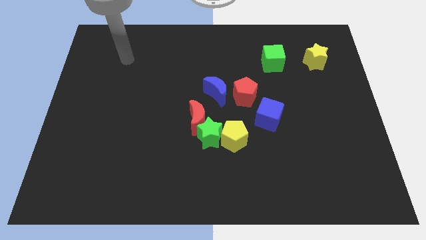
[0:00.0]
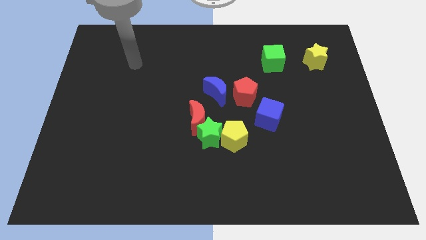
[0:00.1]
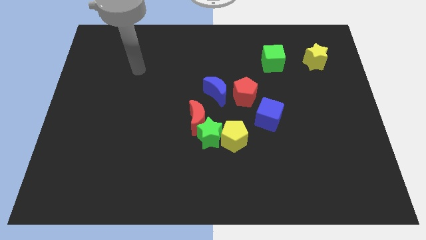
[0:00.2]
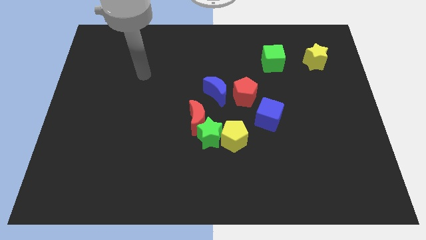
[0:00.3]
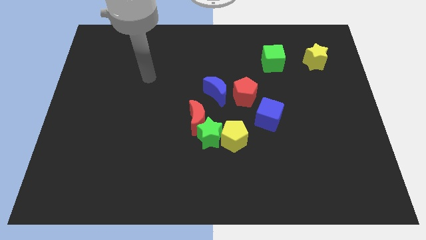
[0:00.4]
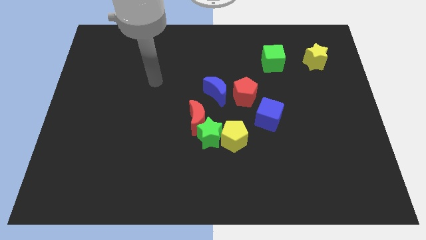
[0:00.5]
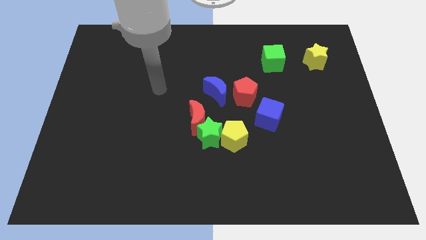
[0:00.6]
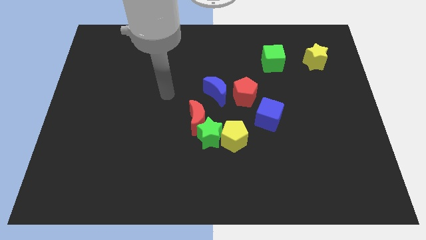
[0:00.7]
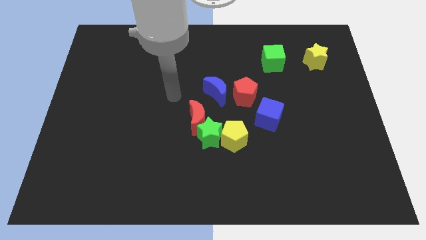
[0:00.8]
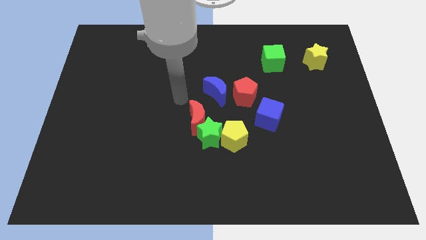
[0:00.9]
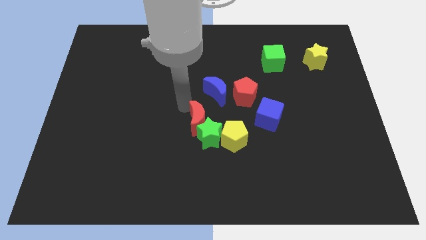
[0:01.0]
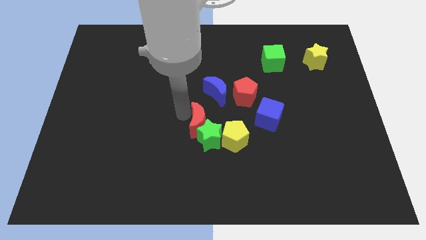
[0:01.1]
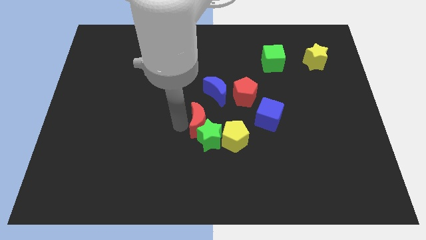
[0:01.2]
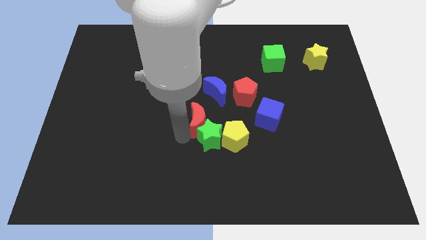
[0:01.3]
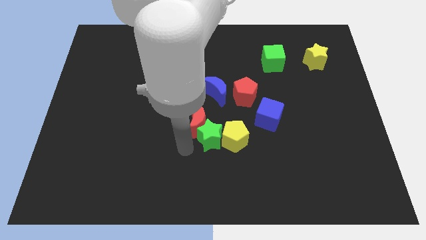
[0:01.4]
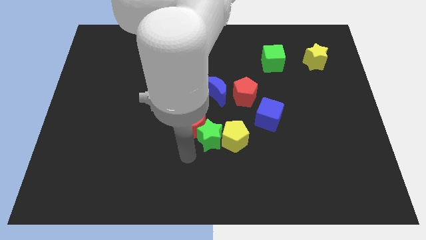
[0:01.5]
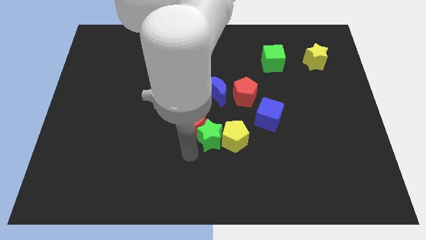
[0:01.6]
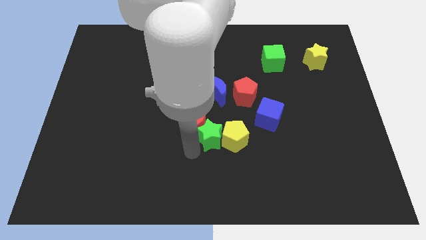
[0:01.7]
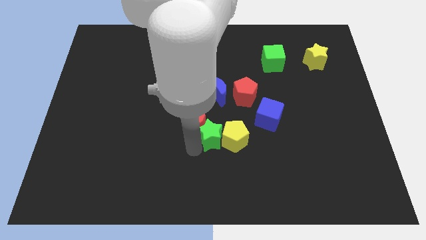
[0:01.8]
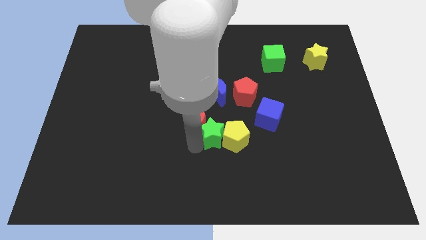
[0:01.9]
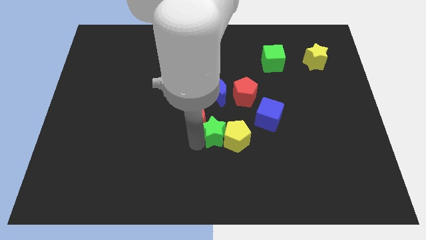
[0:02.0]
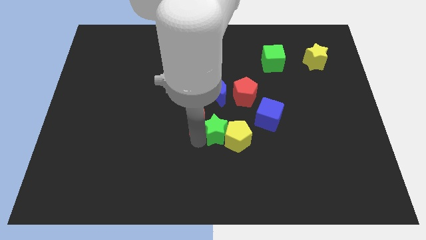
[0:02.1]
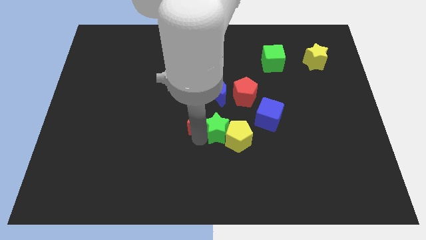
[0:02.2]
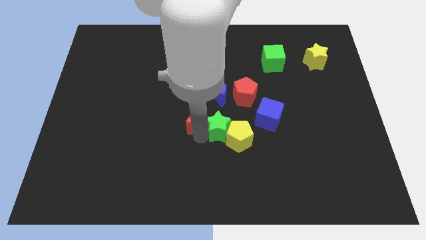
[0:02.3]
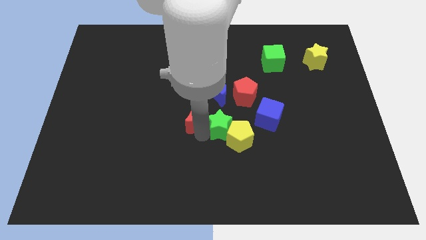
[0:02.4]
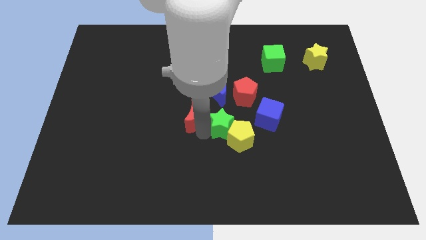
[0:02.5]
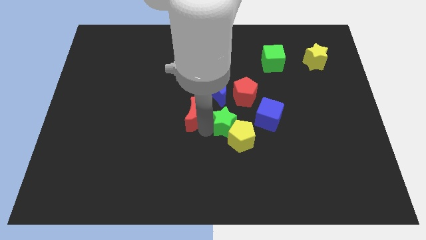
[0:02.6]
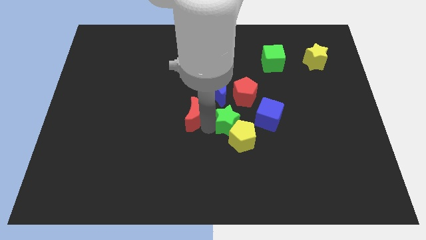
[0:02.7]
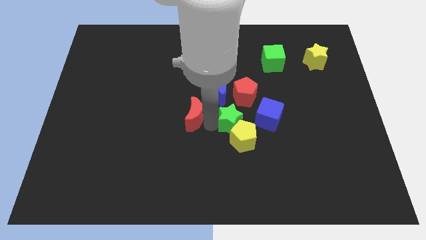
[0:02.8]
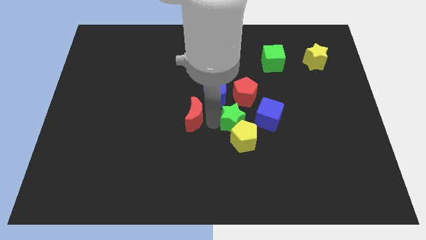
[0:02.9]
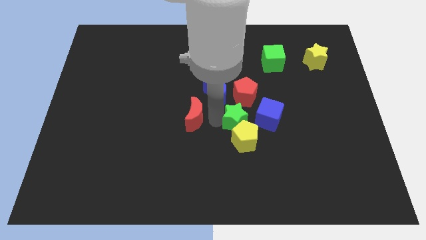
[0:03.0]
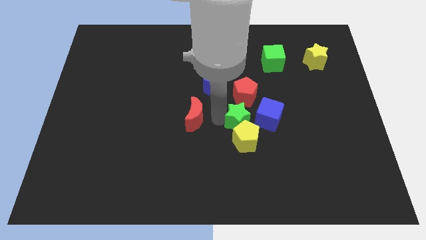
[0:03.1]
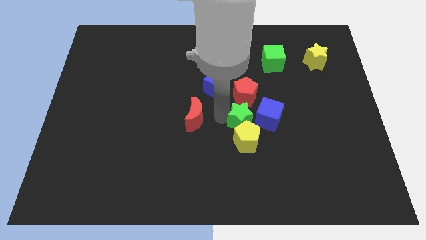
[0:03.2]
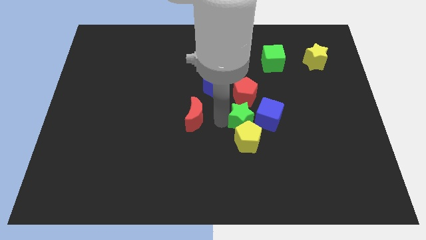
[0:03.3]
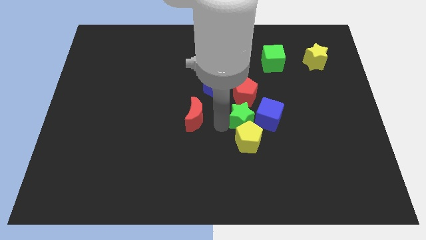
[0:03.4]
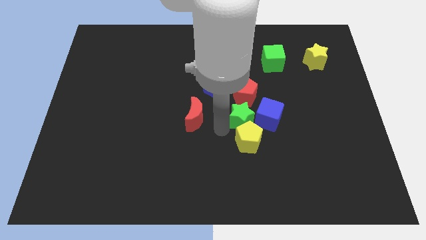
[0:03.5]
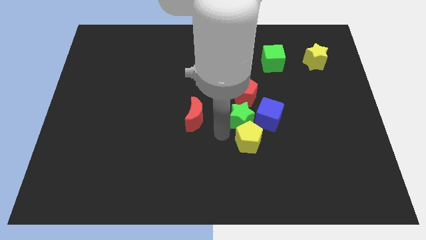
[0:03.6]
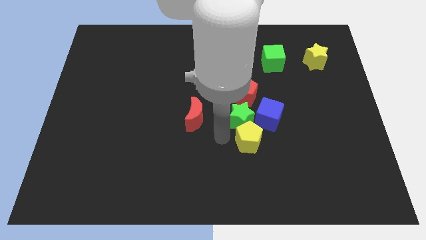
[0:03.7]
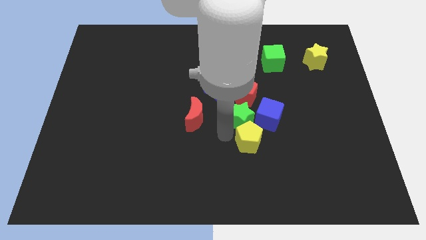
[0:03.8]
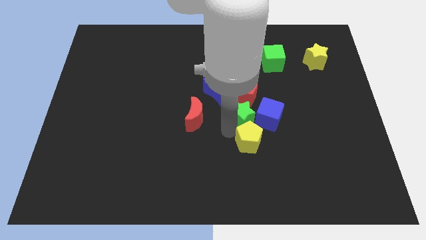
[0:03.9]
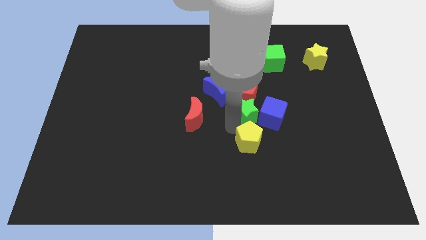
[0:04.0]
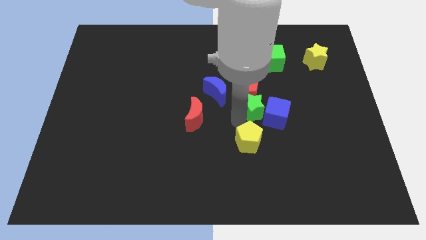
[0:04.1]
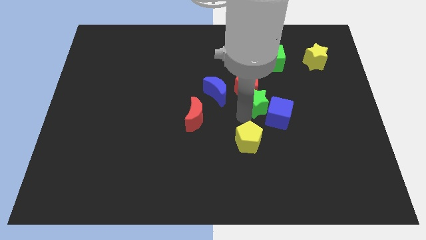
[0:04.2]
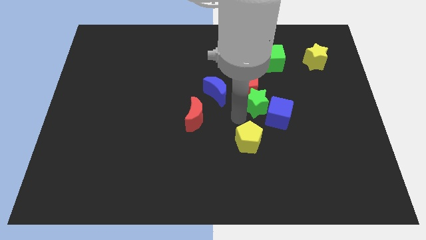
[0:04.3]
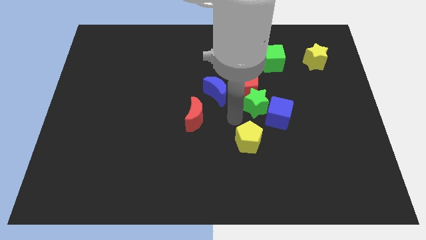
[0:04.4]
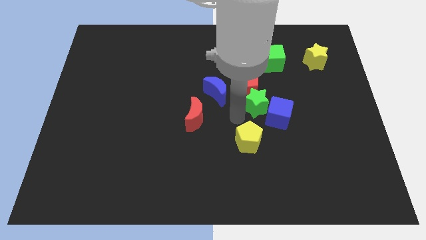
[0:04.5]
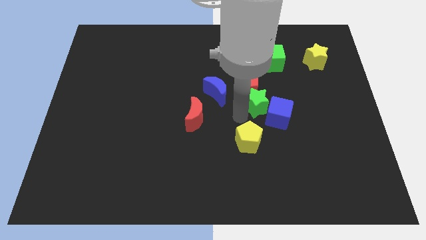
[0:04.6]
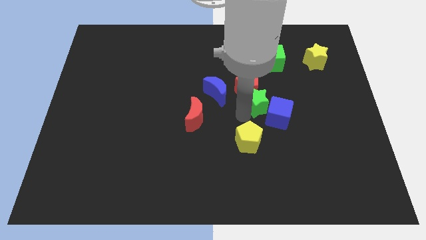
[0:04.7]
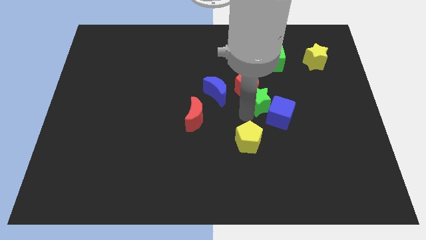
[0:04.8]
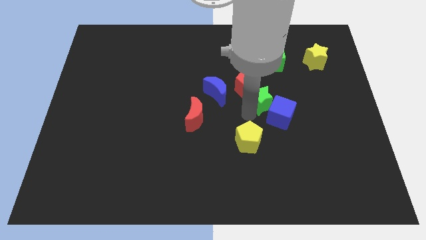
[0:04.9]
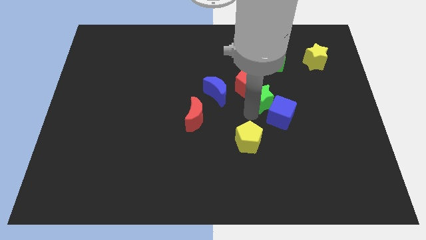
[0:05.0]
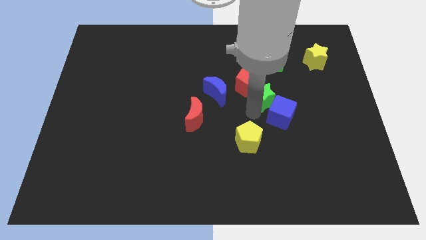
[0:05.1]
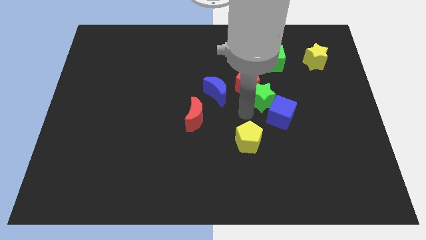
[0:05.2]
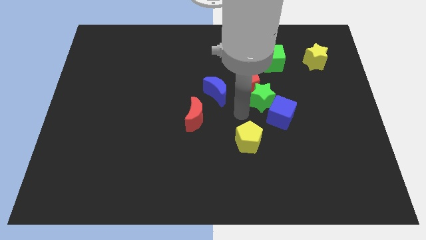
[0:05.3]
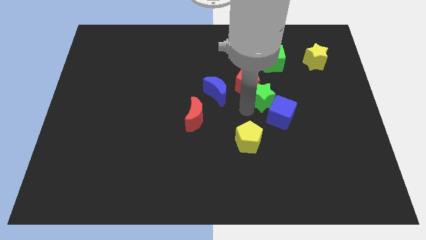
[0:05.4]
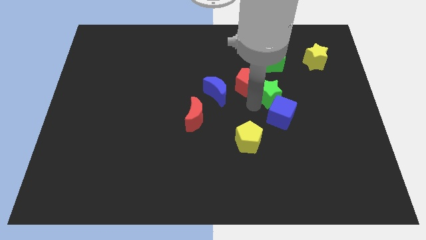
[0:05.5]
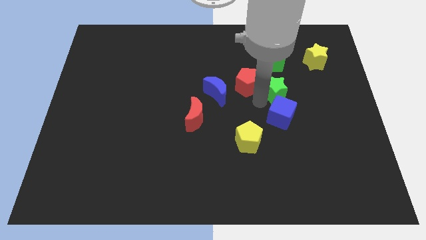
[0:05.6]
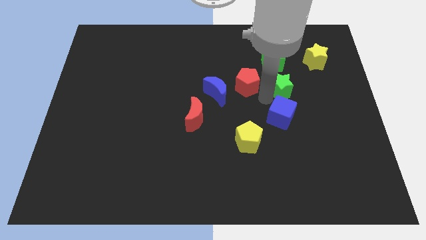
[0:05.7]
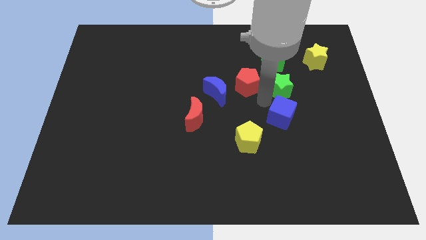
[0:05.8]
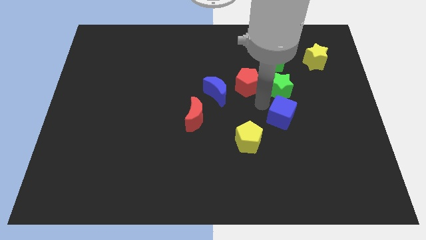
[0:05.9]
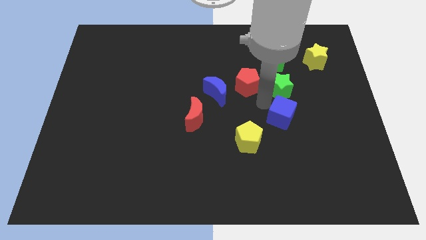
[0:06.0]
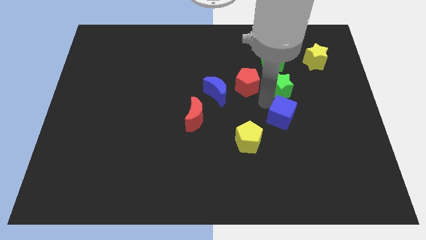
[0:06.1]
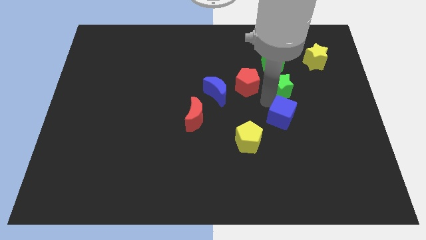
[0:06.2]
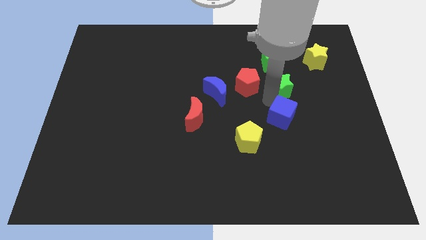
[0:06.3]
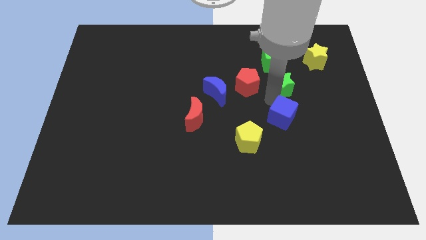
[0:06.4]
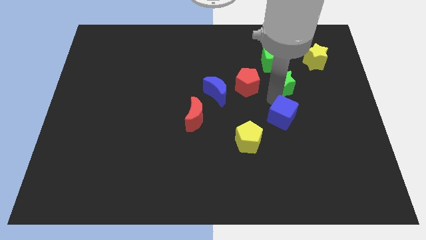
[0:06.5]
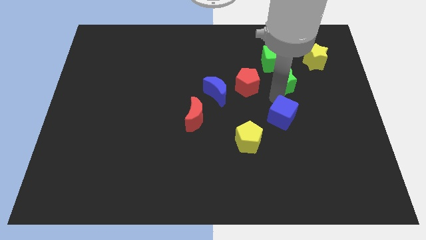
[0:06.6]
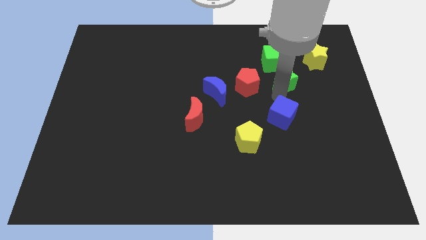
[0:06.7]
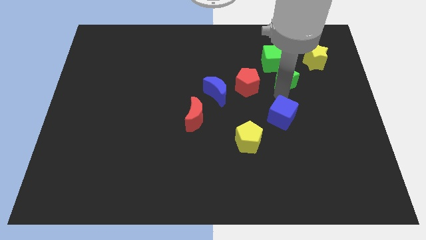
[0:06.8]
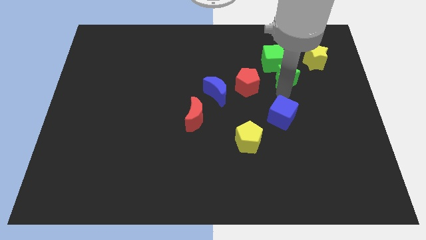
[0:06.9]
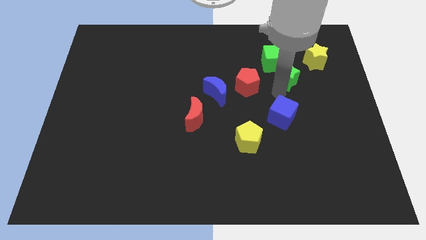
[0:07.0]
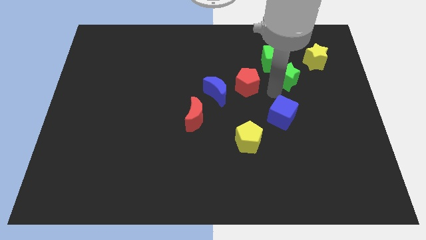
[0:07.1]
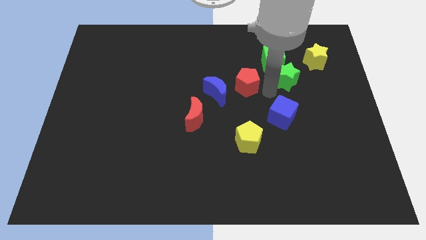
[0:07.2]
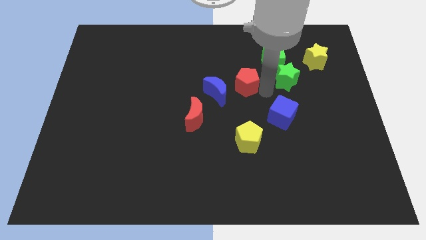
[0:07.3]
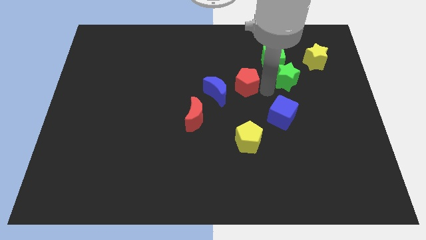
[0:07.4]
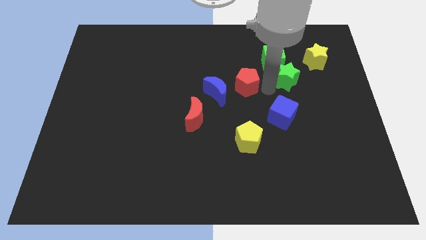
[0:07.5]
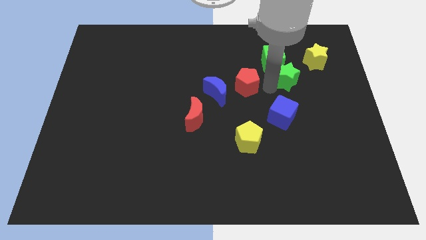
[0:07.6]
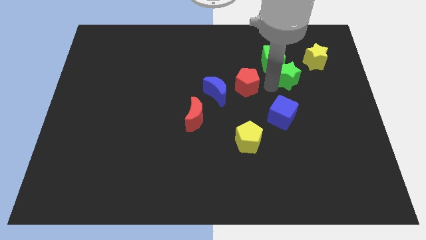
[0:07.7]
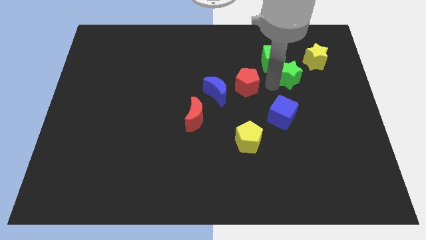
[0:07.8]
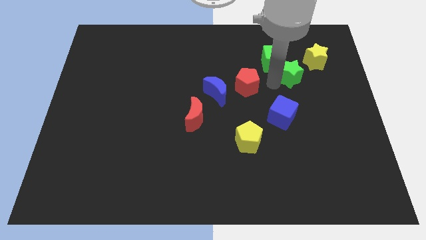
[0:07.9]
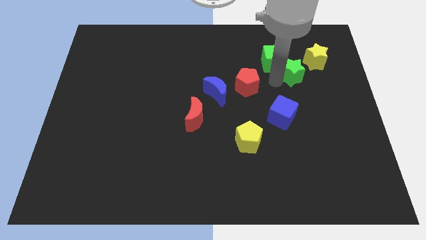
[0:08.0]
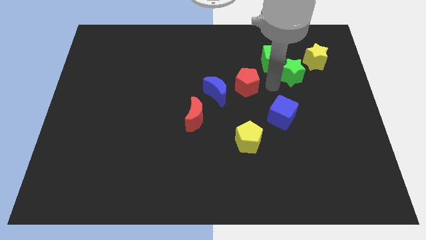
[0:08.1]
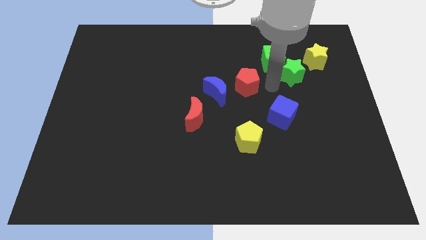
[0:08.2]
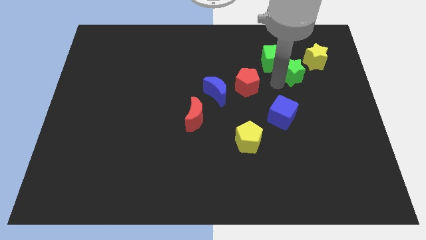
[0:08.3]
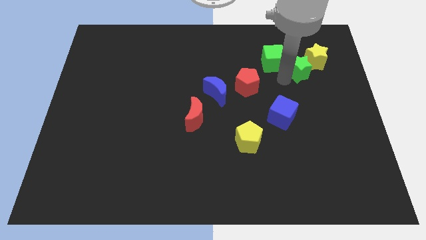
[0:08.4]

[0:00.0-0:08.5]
put the green star to the yellow star
